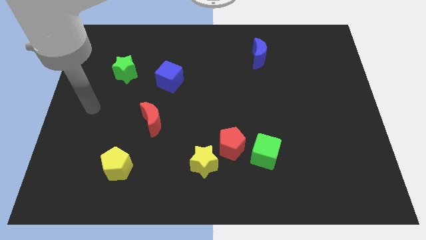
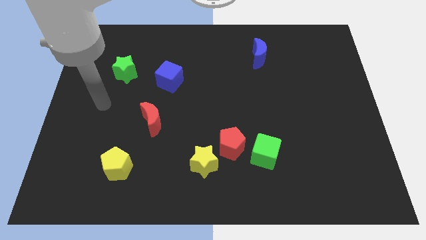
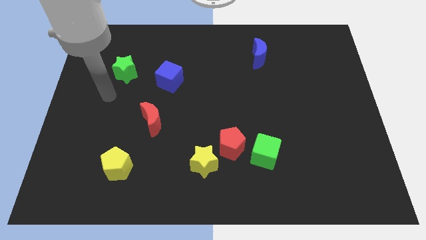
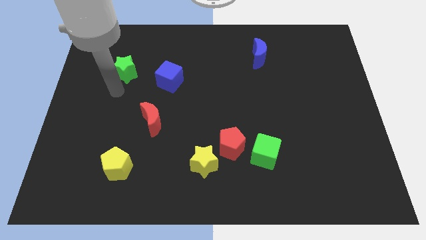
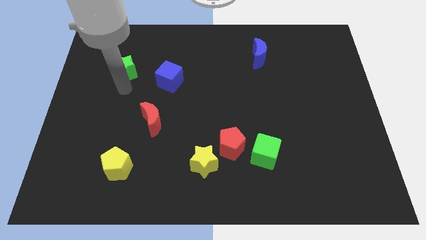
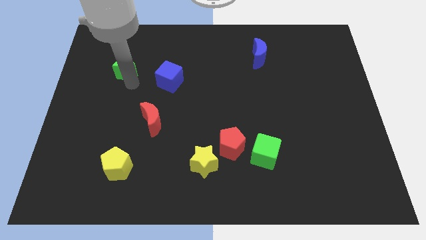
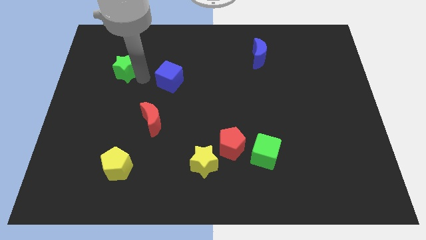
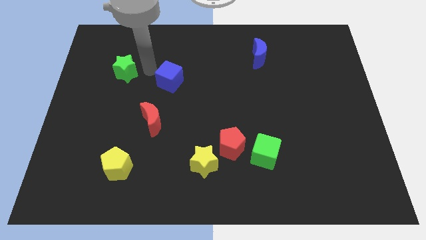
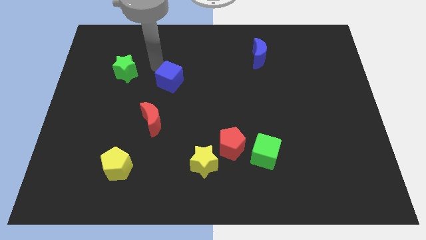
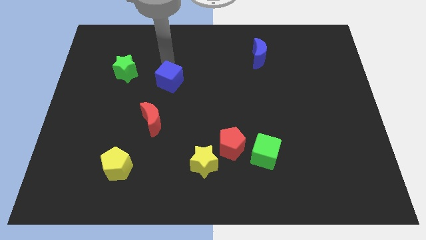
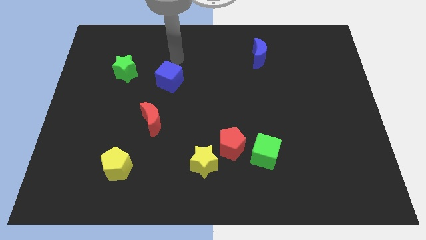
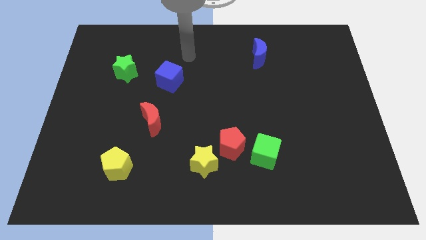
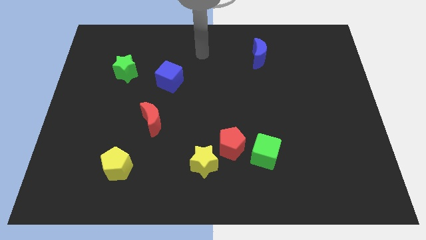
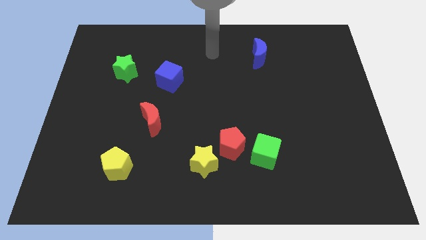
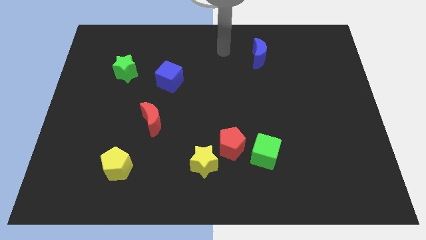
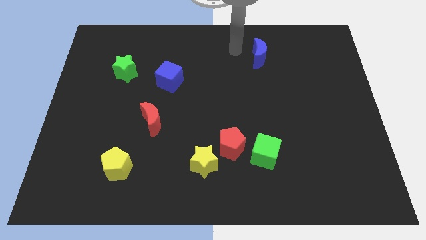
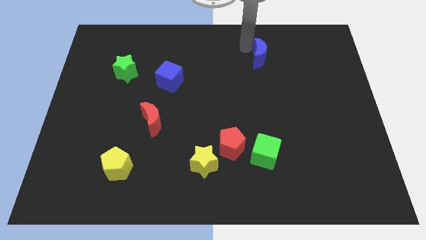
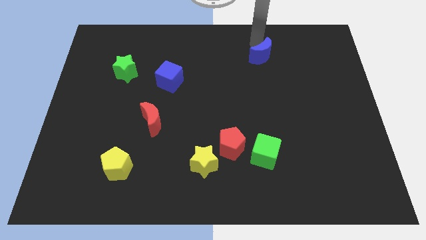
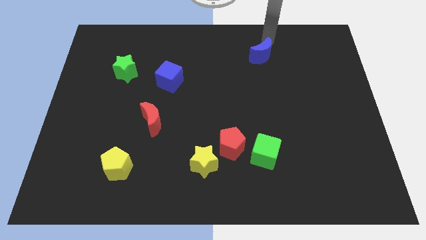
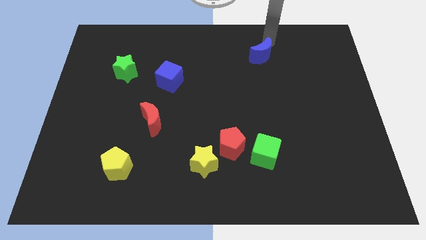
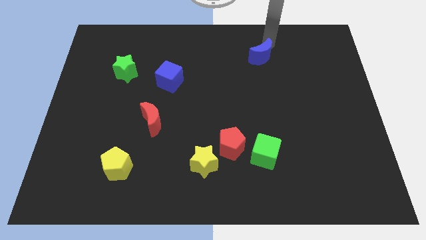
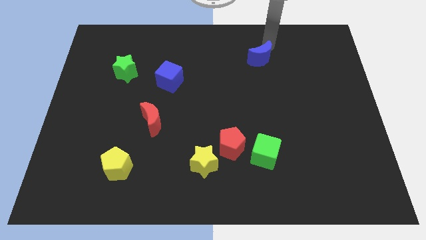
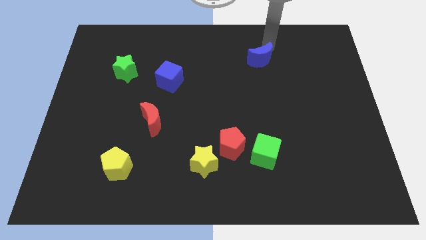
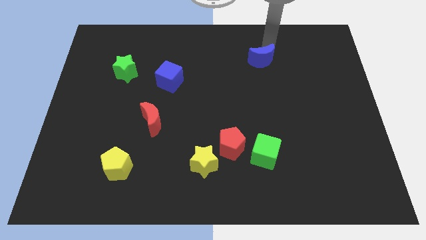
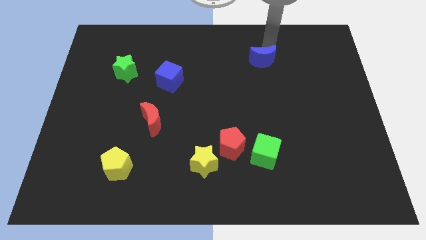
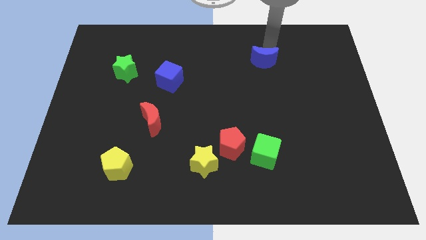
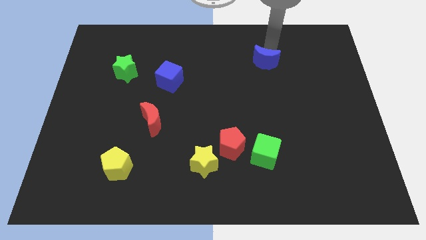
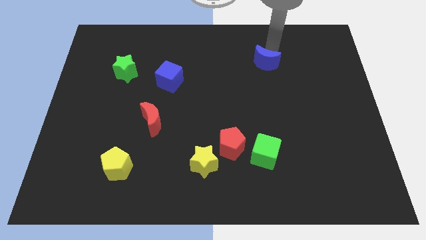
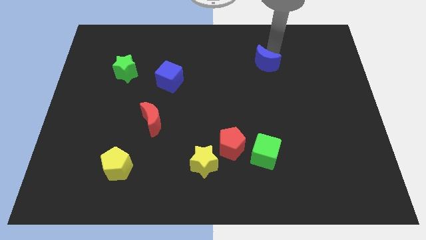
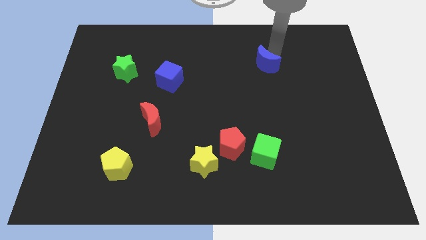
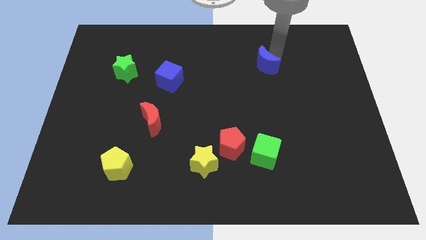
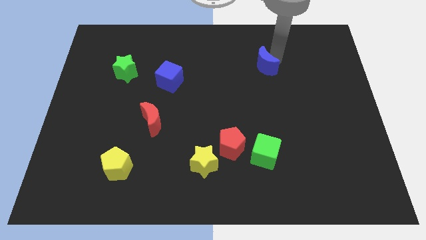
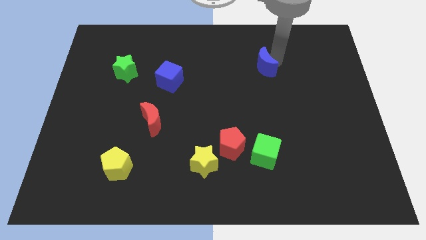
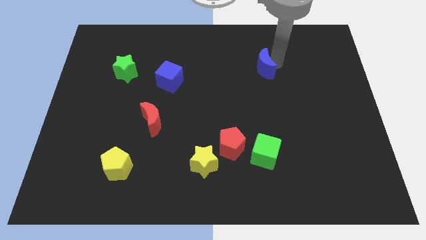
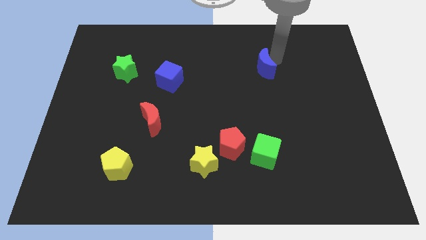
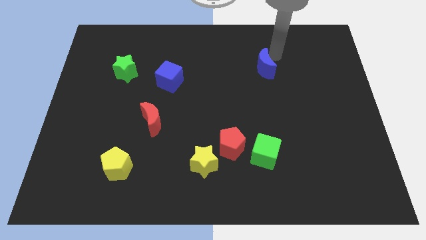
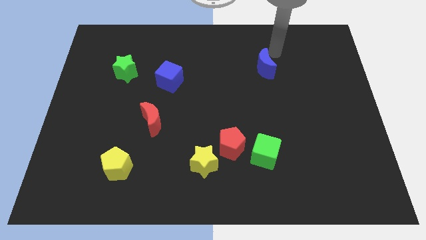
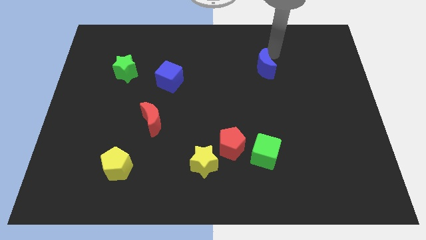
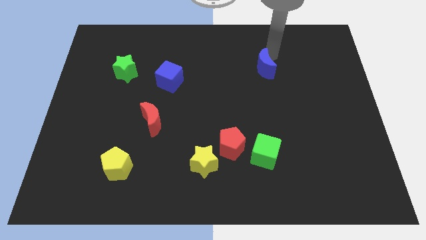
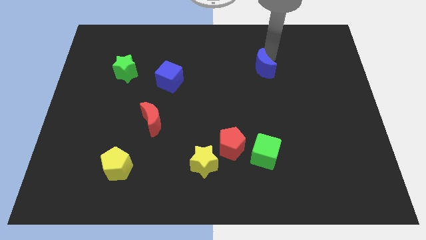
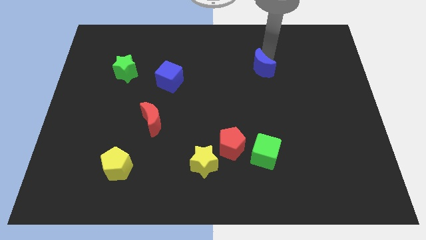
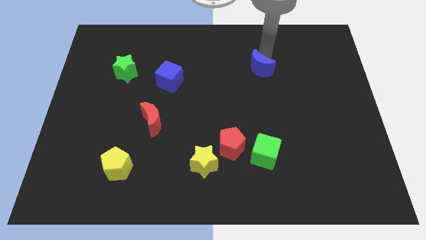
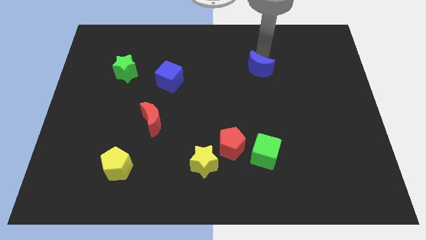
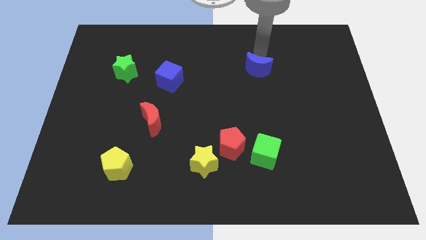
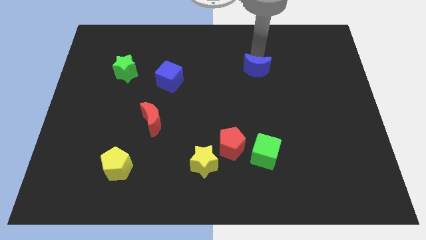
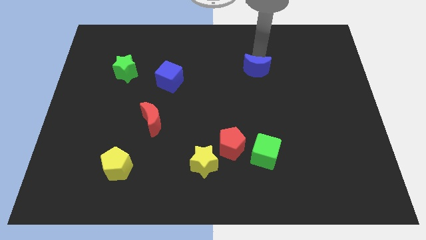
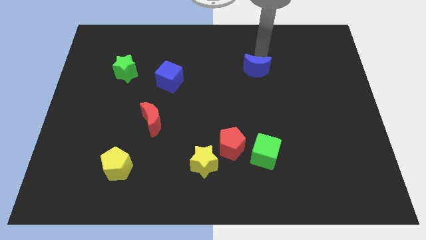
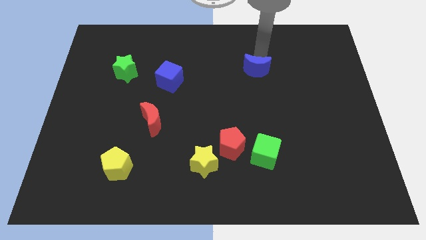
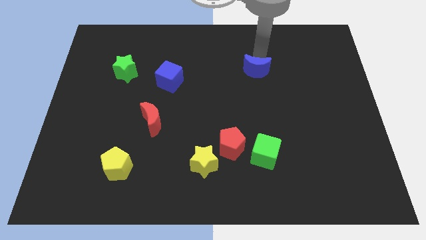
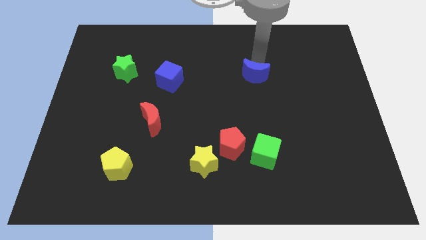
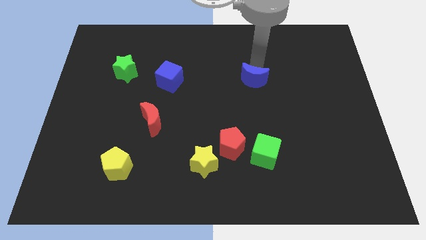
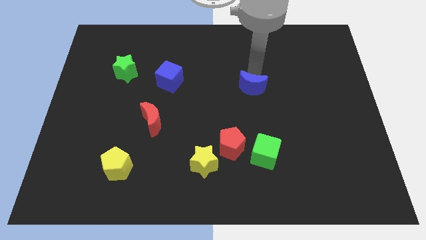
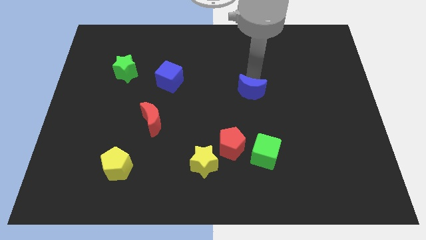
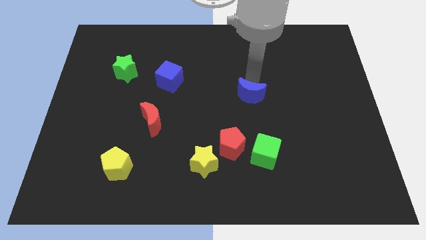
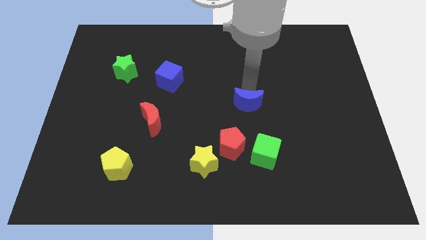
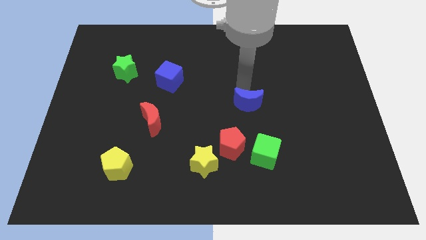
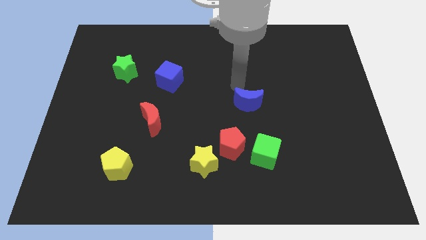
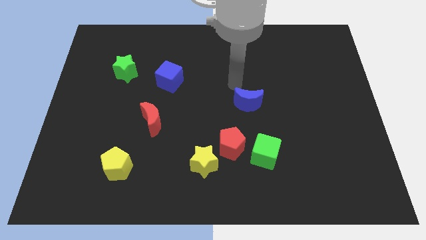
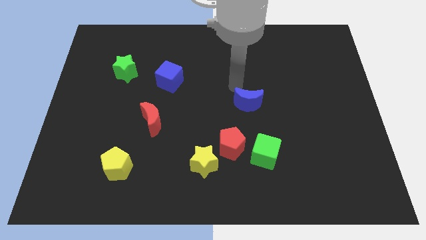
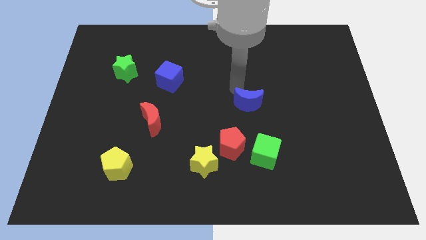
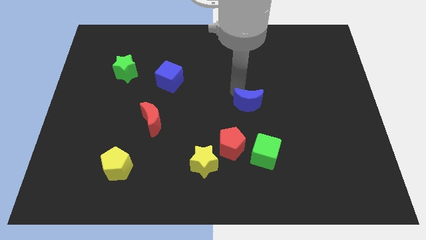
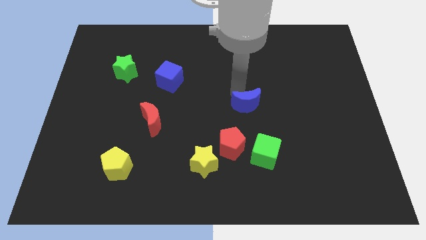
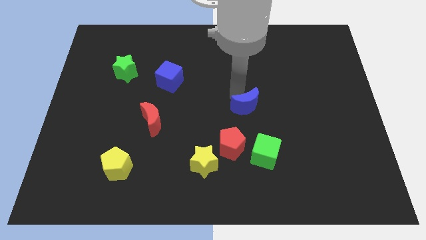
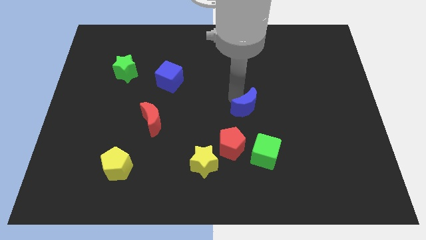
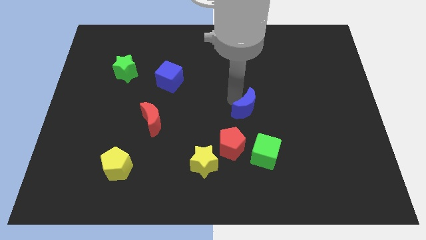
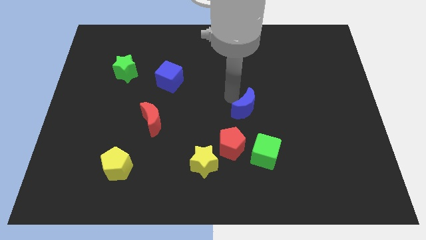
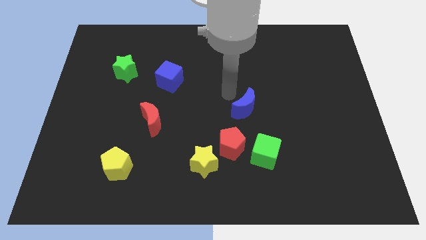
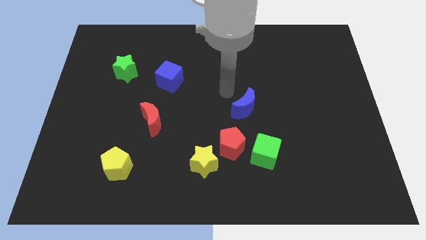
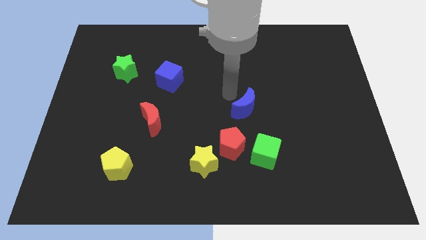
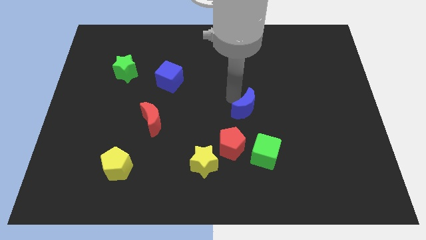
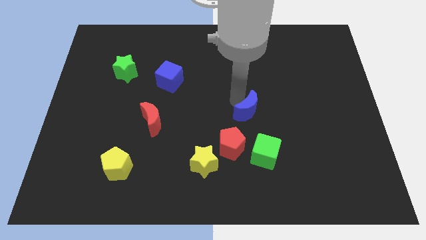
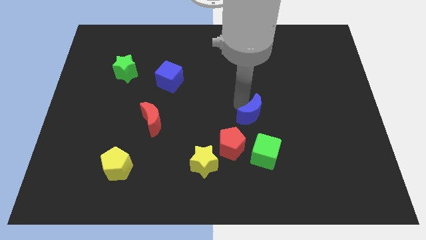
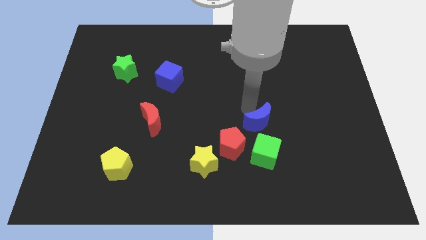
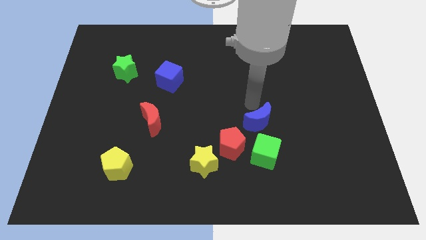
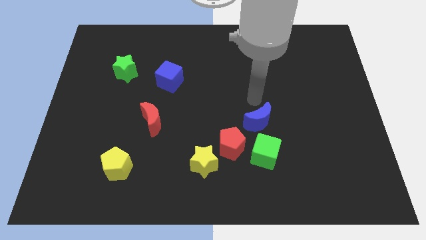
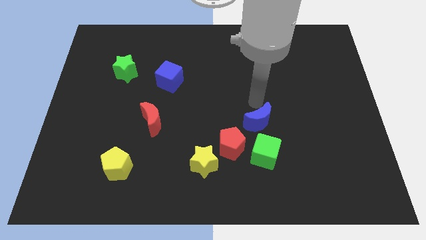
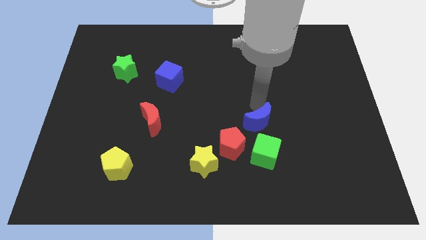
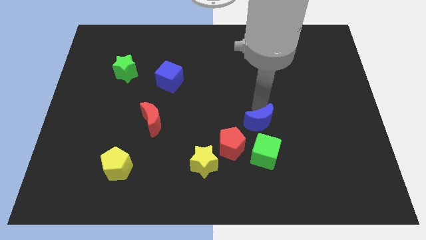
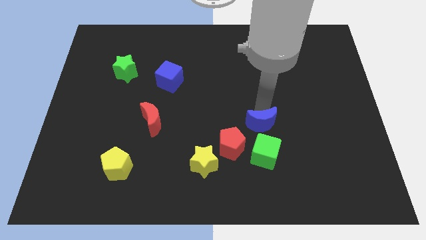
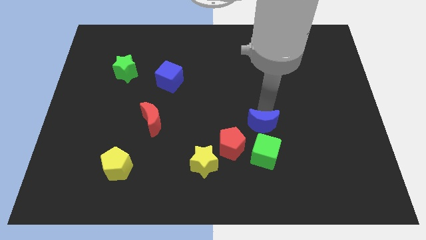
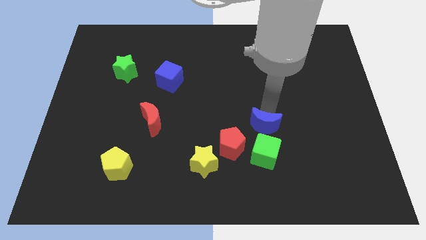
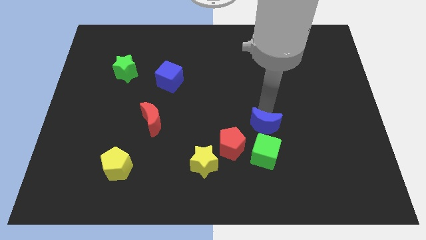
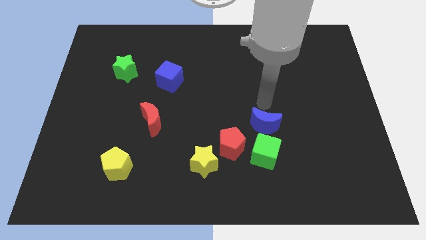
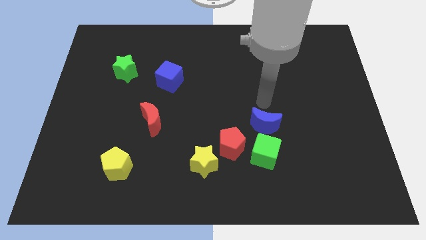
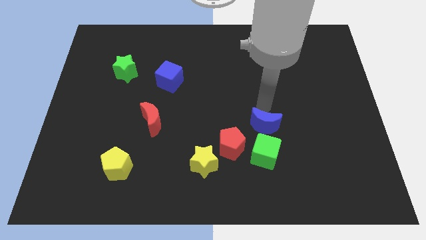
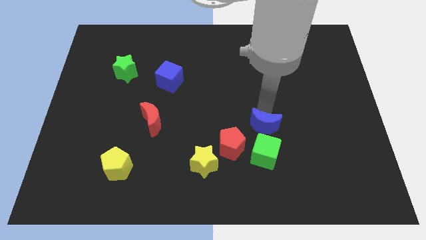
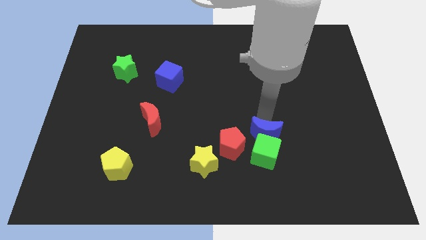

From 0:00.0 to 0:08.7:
move the blue moon close to the green cube
